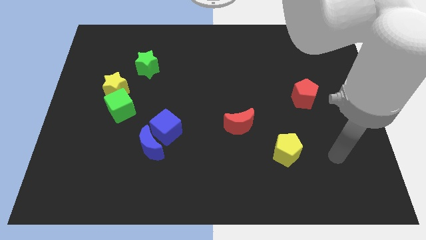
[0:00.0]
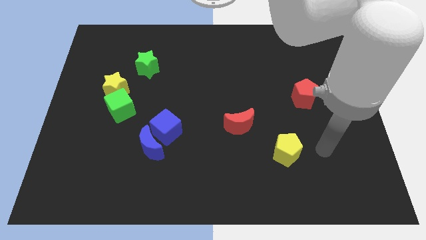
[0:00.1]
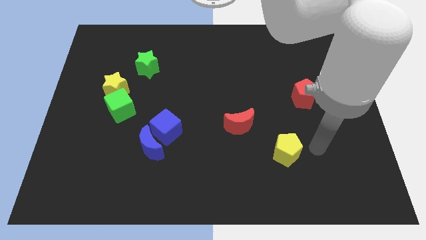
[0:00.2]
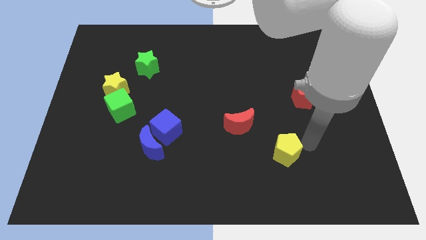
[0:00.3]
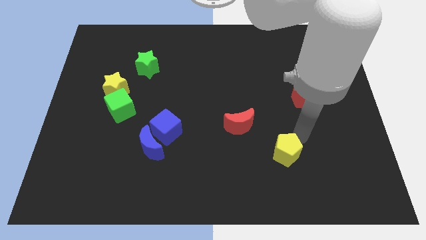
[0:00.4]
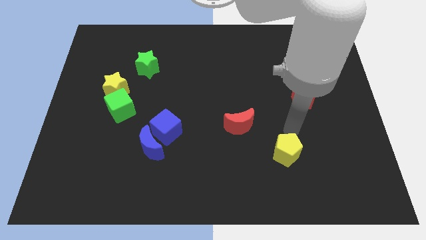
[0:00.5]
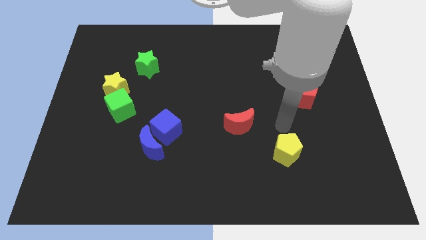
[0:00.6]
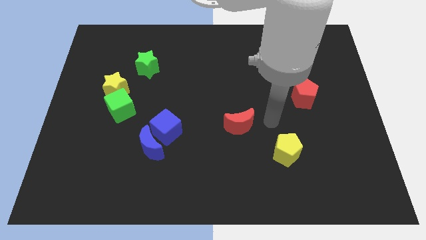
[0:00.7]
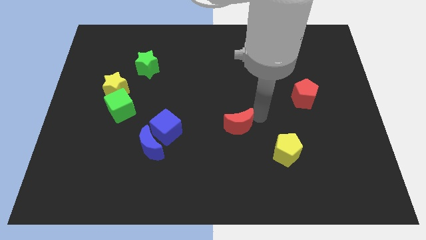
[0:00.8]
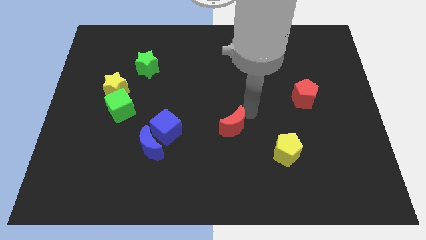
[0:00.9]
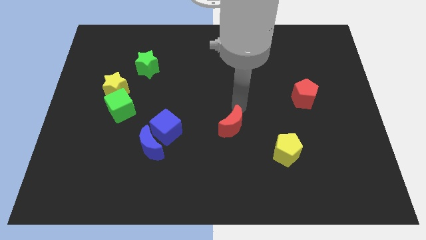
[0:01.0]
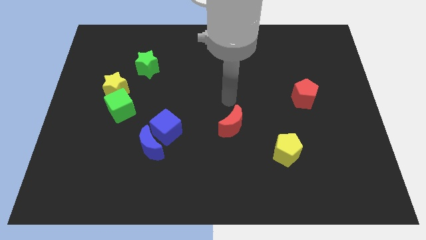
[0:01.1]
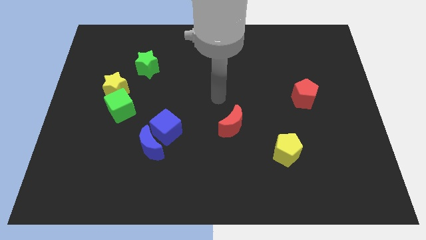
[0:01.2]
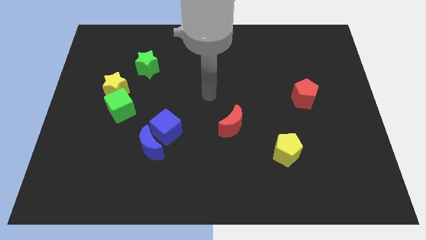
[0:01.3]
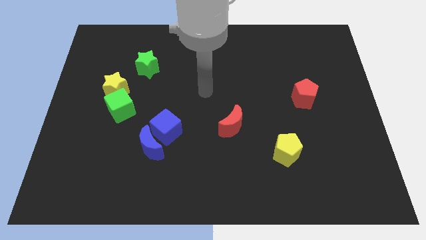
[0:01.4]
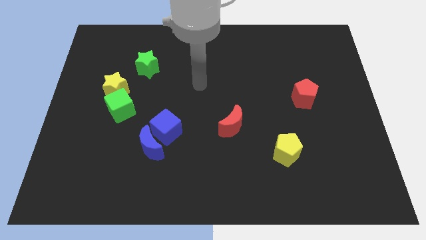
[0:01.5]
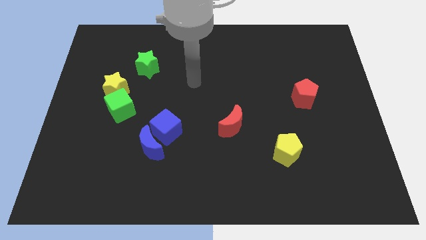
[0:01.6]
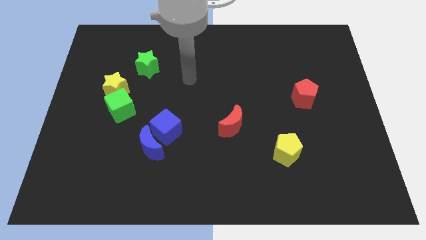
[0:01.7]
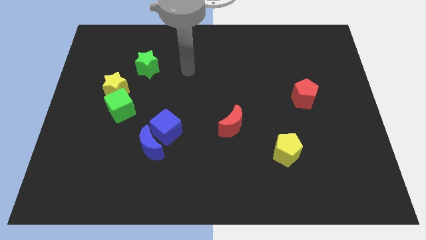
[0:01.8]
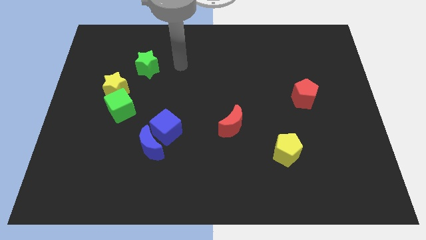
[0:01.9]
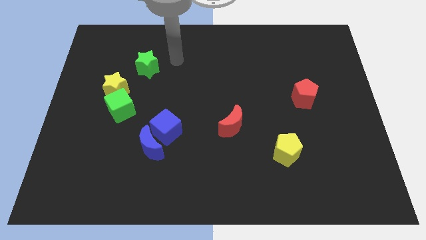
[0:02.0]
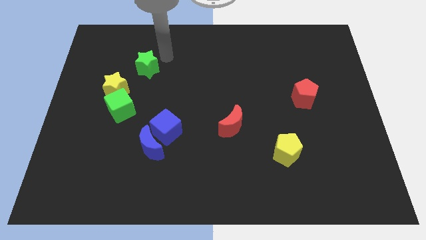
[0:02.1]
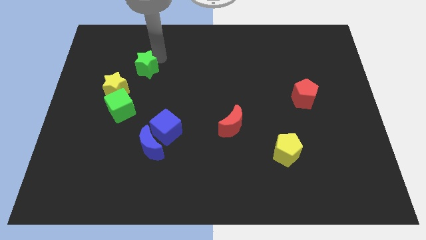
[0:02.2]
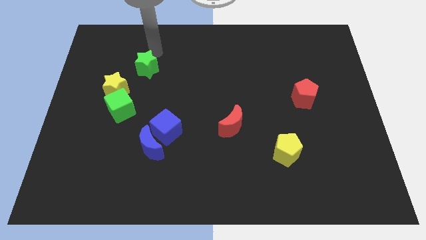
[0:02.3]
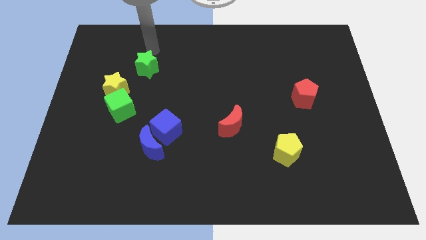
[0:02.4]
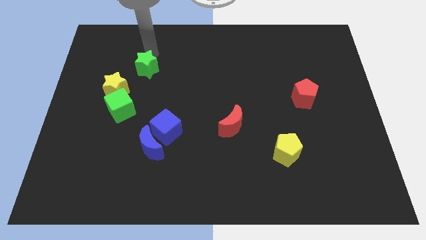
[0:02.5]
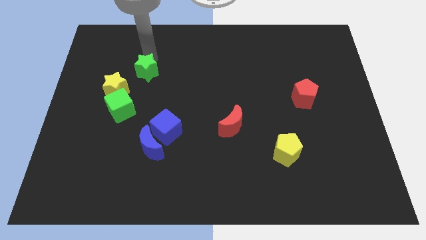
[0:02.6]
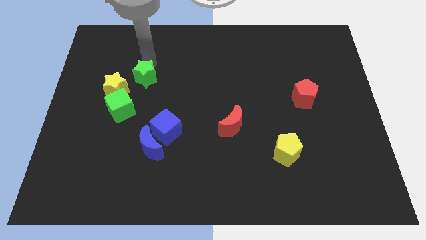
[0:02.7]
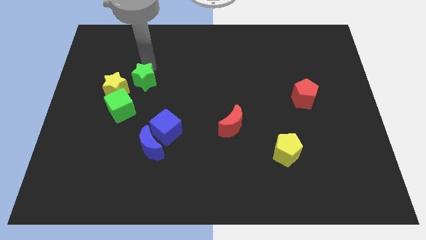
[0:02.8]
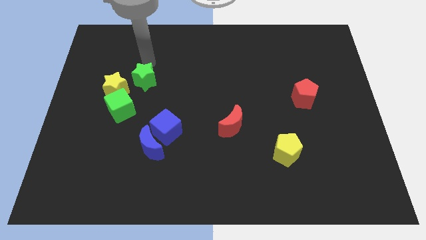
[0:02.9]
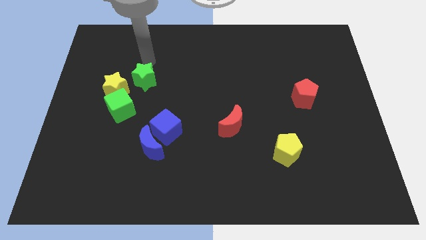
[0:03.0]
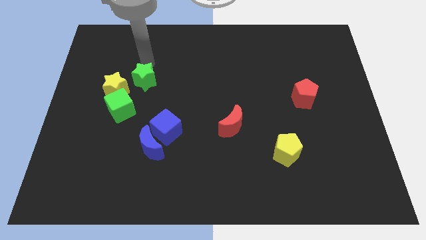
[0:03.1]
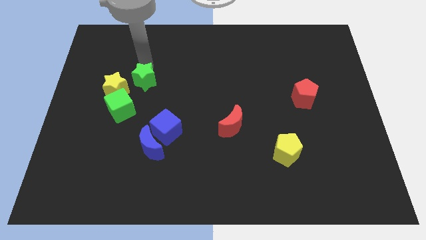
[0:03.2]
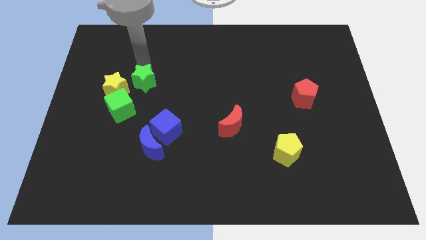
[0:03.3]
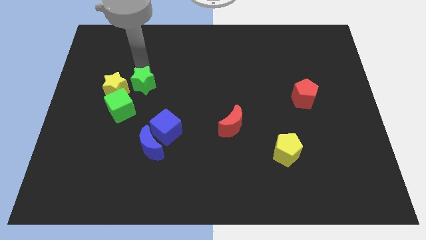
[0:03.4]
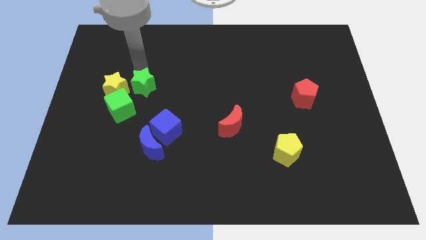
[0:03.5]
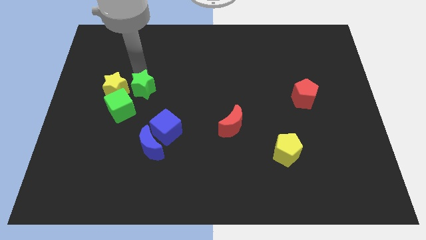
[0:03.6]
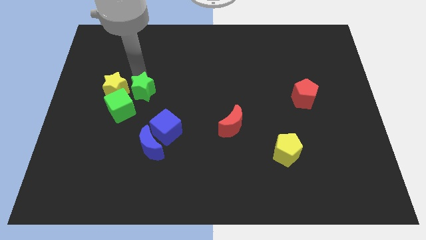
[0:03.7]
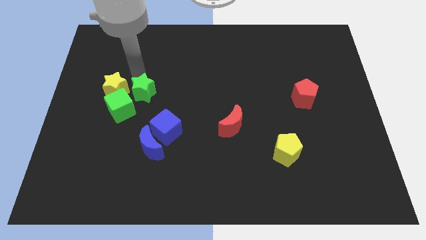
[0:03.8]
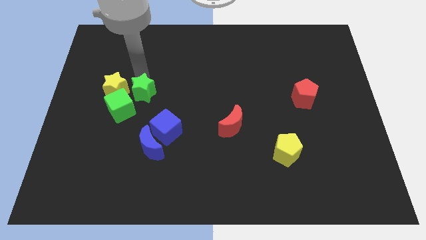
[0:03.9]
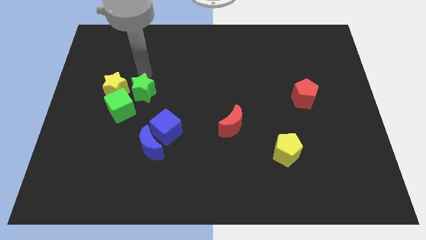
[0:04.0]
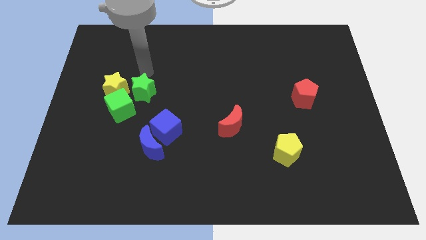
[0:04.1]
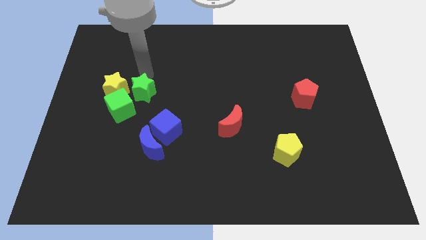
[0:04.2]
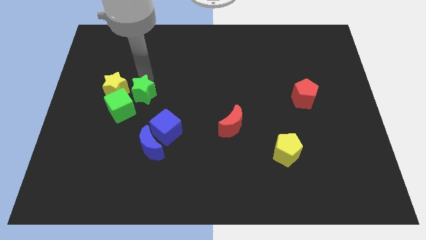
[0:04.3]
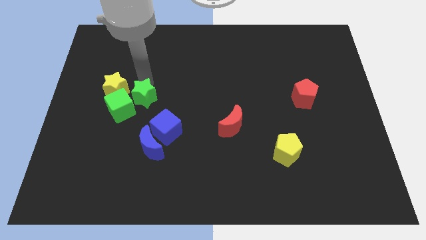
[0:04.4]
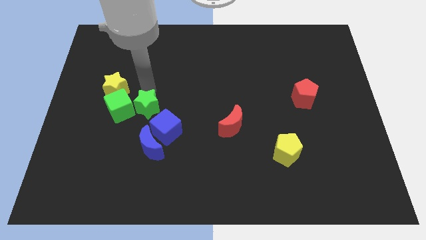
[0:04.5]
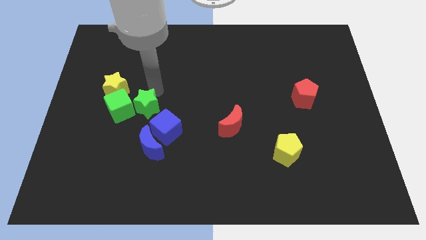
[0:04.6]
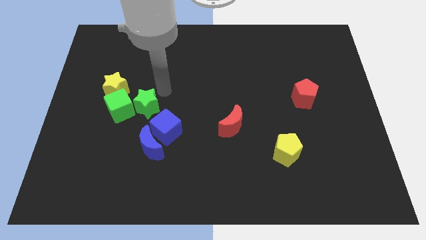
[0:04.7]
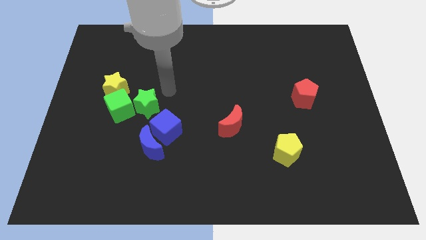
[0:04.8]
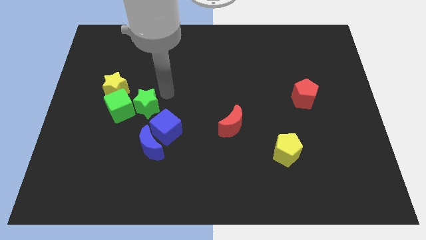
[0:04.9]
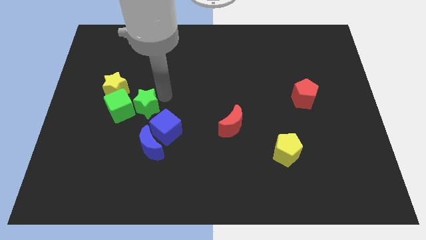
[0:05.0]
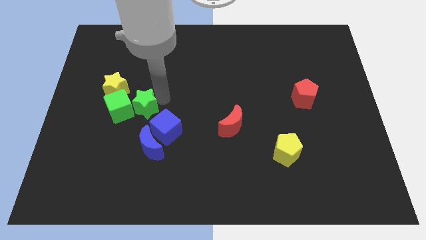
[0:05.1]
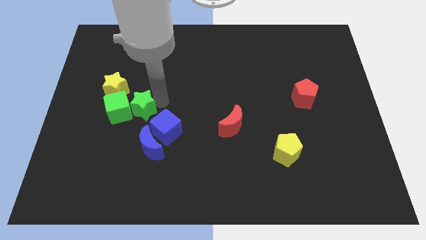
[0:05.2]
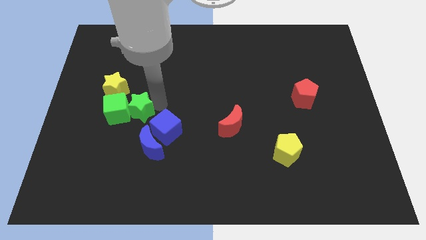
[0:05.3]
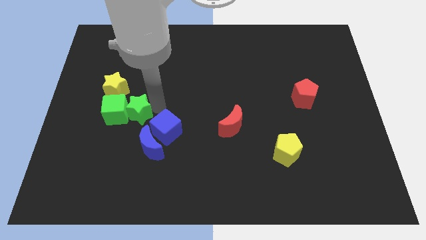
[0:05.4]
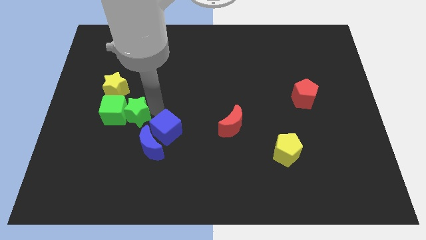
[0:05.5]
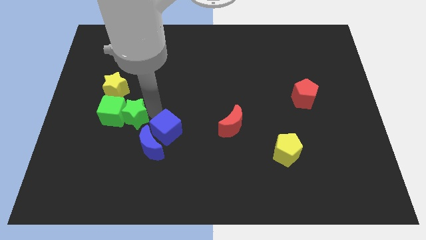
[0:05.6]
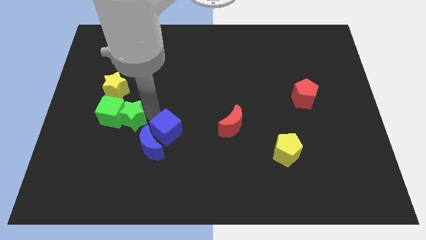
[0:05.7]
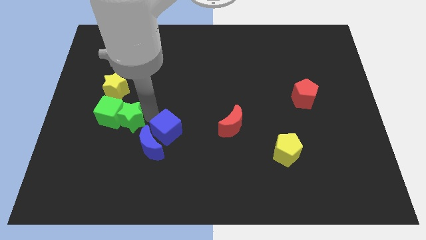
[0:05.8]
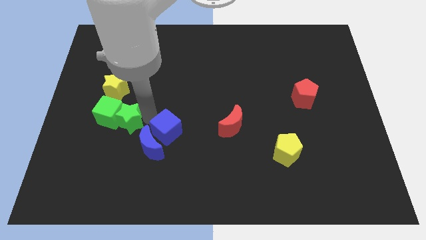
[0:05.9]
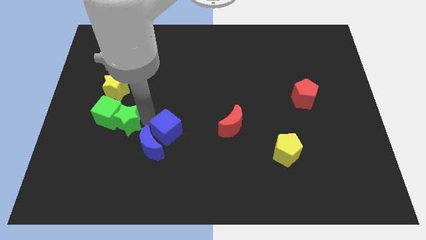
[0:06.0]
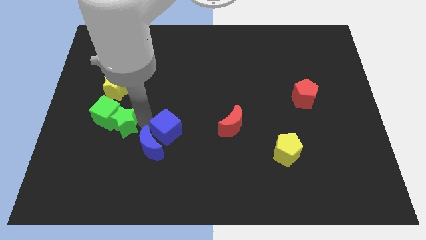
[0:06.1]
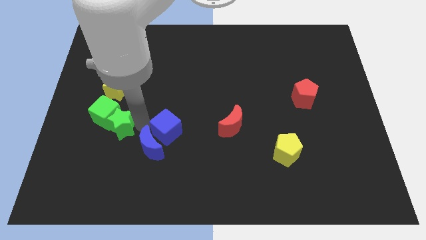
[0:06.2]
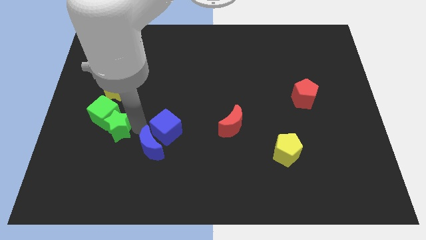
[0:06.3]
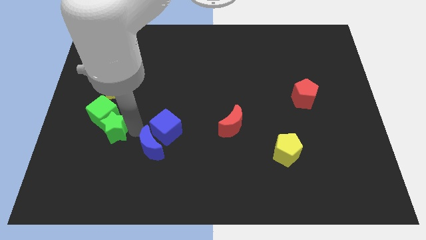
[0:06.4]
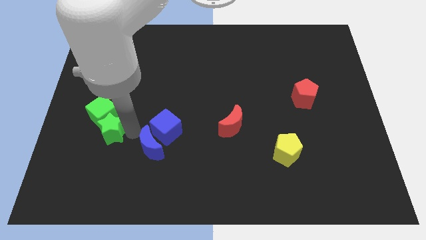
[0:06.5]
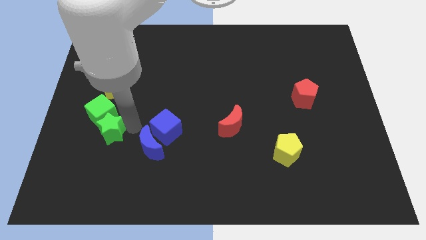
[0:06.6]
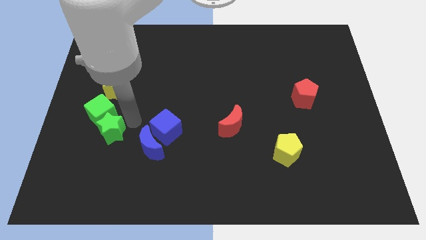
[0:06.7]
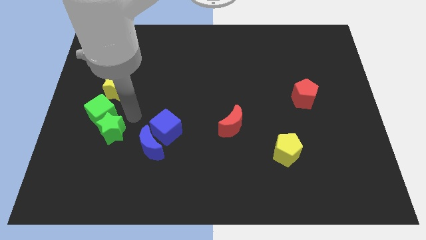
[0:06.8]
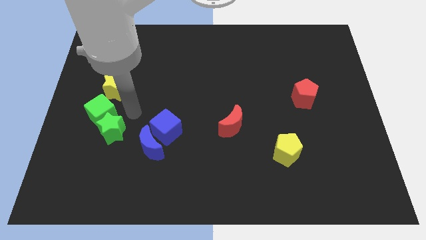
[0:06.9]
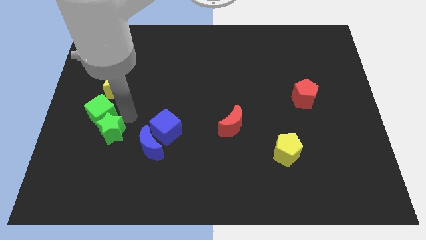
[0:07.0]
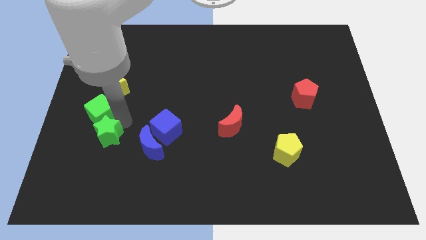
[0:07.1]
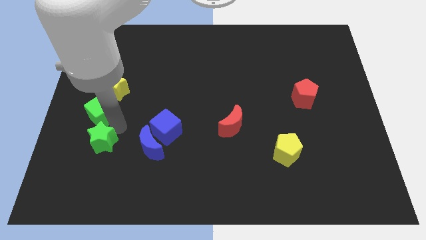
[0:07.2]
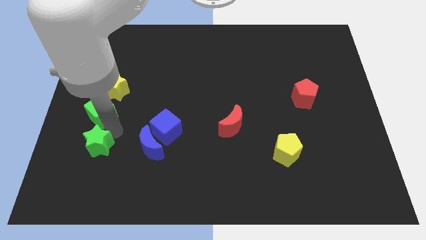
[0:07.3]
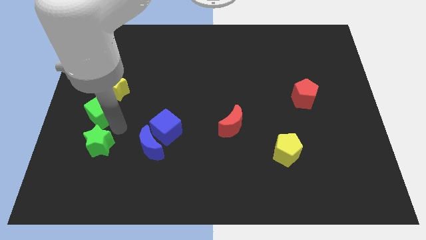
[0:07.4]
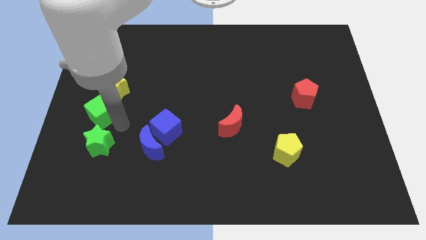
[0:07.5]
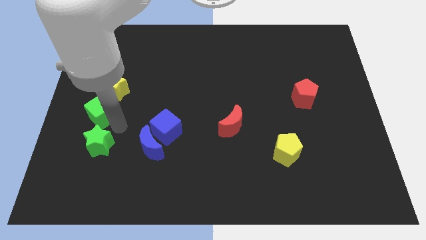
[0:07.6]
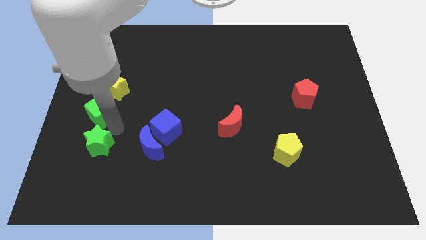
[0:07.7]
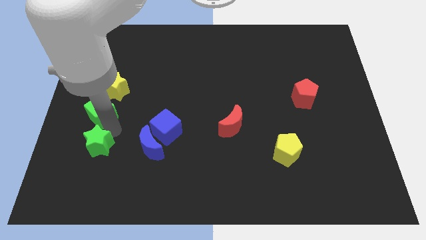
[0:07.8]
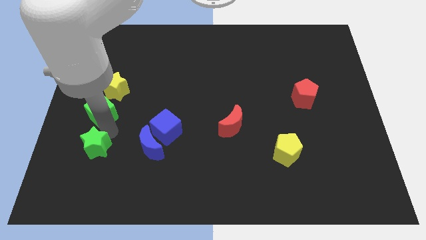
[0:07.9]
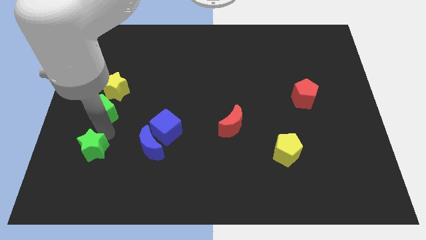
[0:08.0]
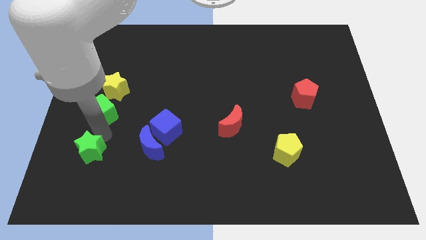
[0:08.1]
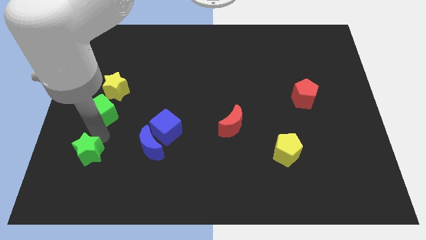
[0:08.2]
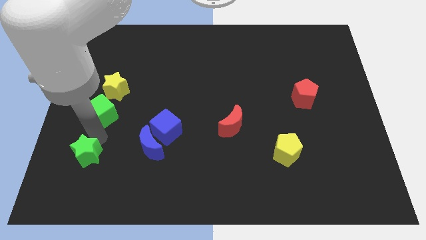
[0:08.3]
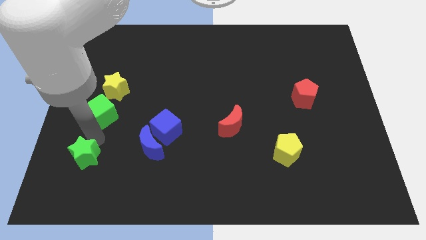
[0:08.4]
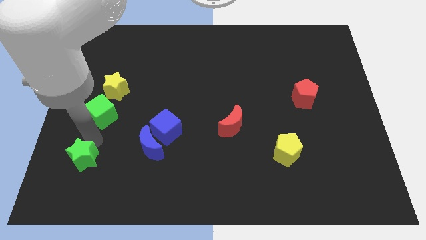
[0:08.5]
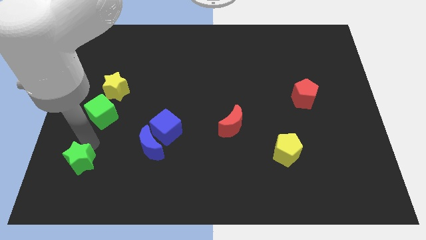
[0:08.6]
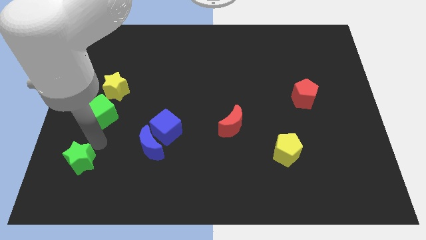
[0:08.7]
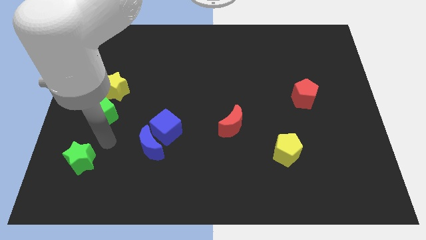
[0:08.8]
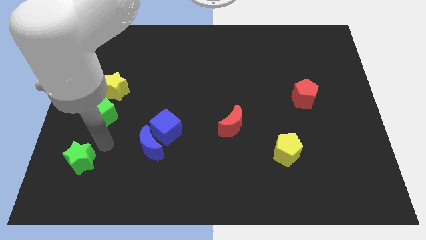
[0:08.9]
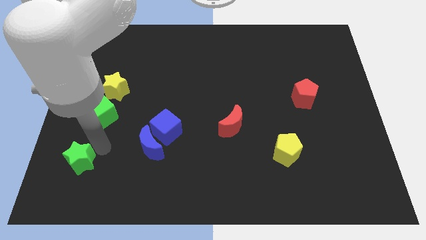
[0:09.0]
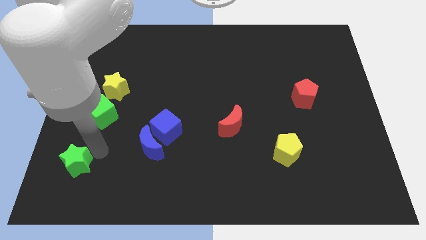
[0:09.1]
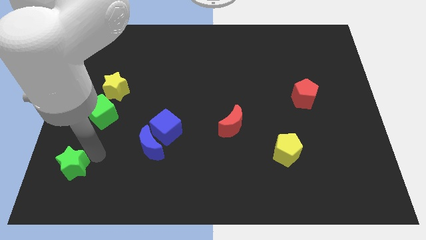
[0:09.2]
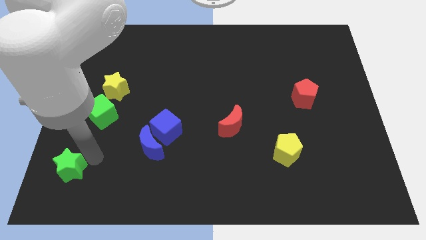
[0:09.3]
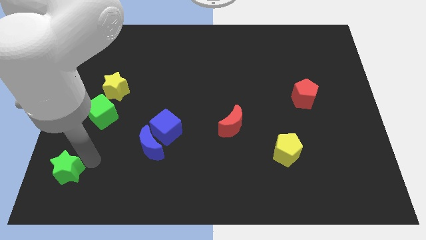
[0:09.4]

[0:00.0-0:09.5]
put the green star to the lower left corner
